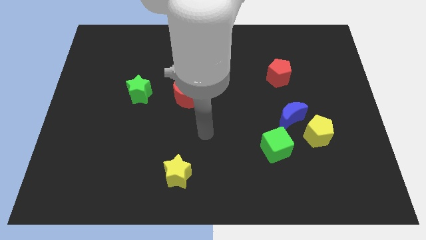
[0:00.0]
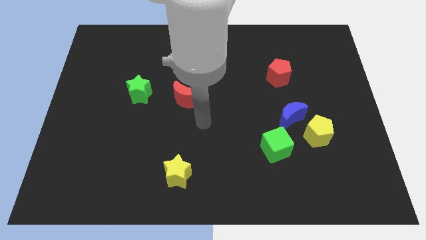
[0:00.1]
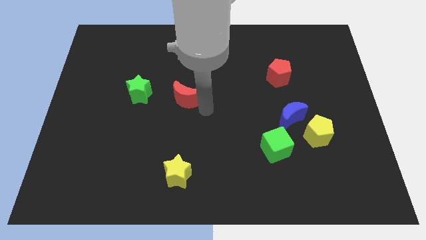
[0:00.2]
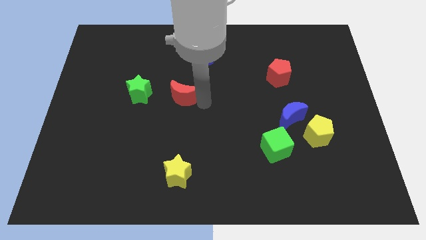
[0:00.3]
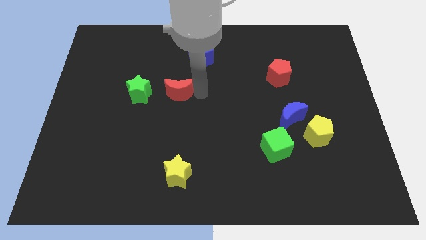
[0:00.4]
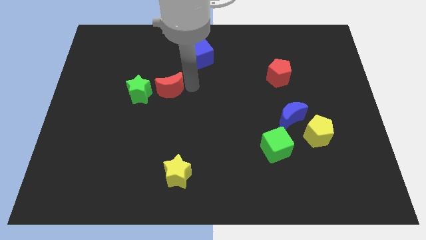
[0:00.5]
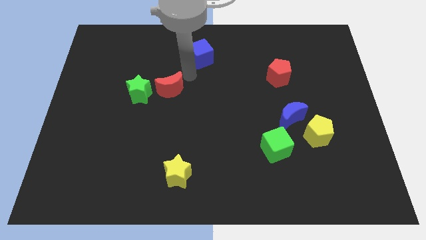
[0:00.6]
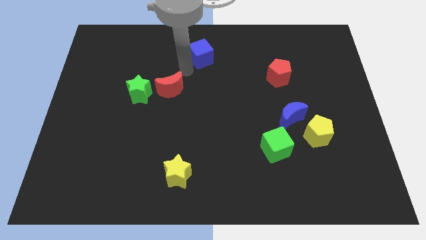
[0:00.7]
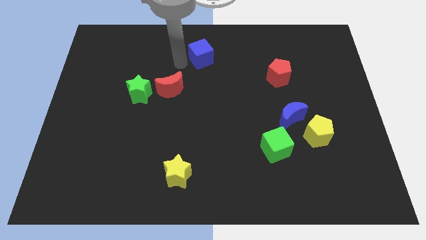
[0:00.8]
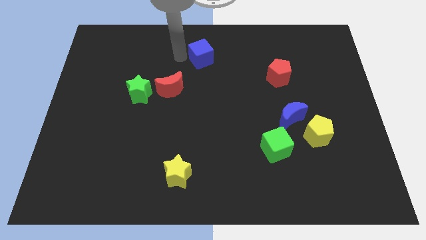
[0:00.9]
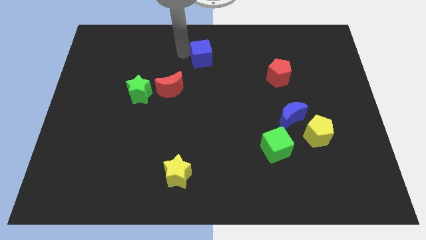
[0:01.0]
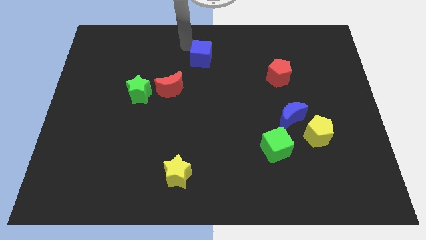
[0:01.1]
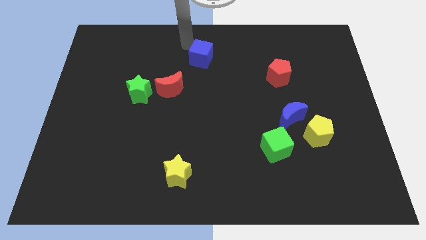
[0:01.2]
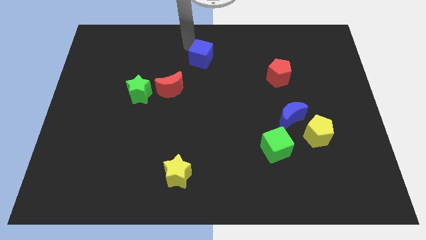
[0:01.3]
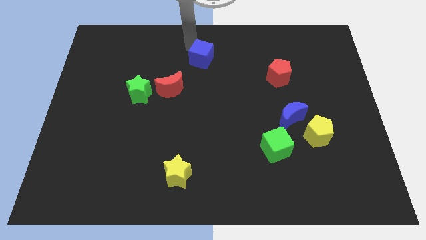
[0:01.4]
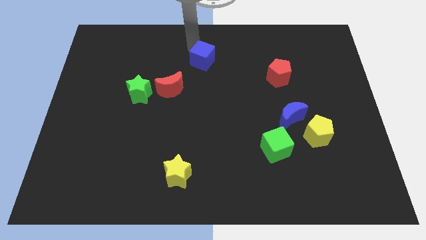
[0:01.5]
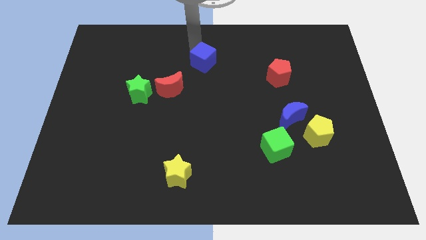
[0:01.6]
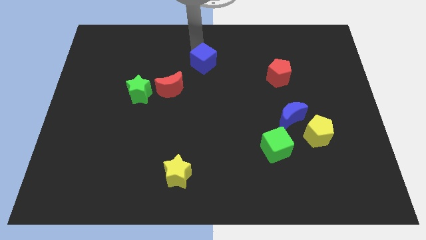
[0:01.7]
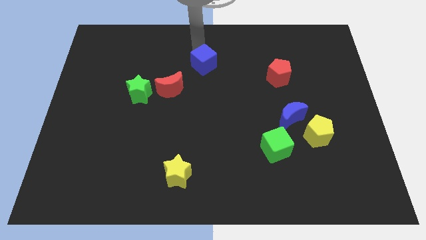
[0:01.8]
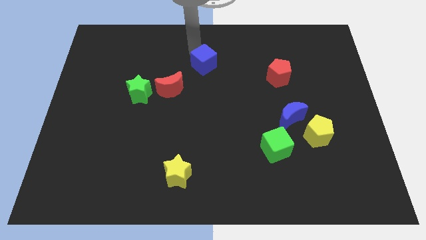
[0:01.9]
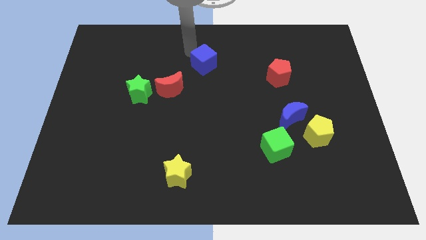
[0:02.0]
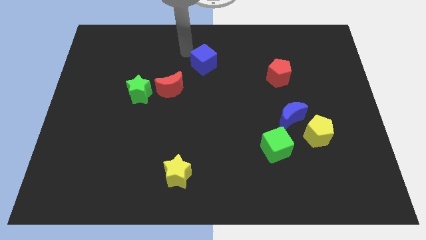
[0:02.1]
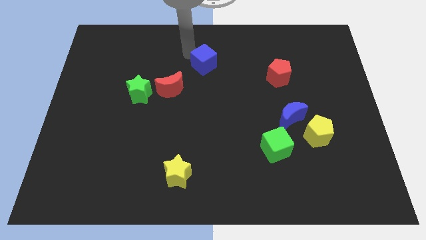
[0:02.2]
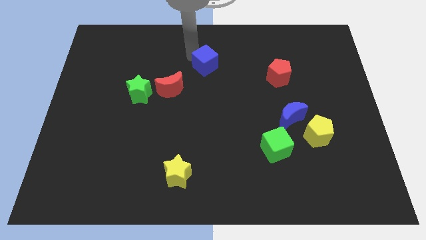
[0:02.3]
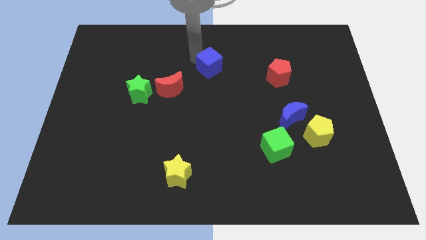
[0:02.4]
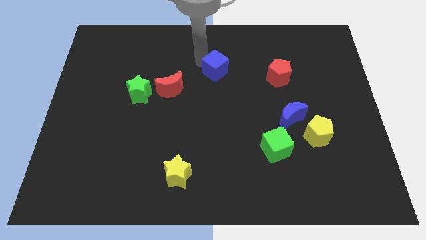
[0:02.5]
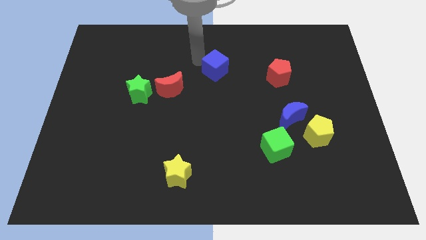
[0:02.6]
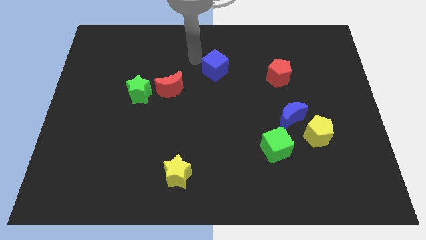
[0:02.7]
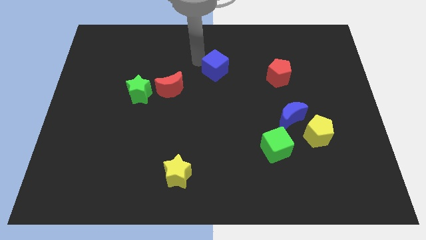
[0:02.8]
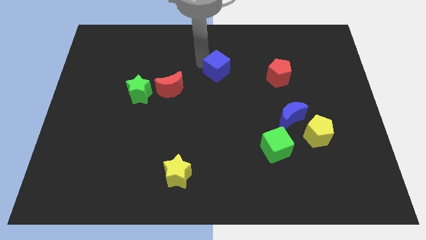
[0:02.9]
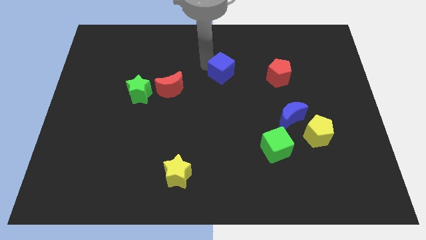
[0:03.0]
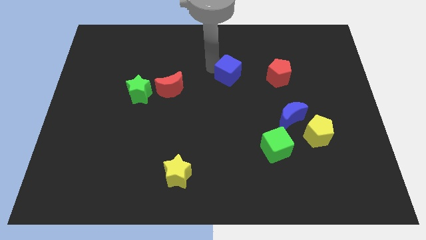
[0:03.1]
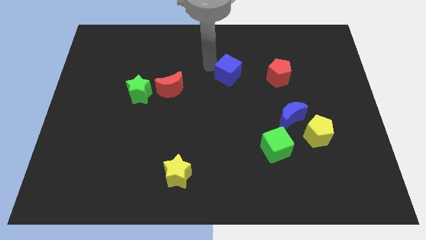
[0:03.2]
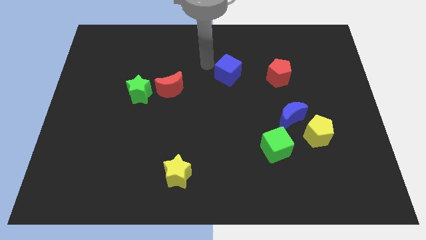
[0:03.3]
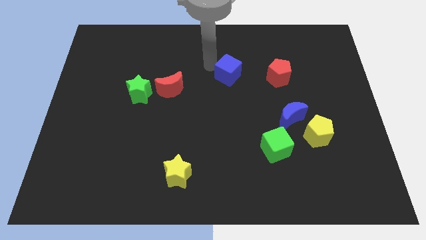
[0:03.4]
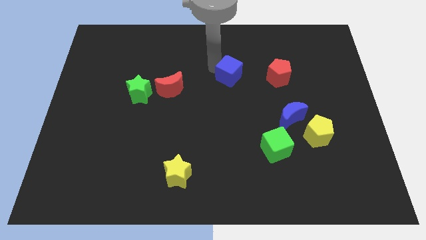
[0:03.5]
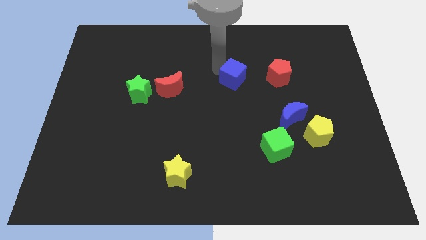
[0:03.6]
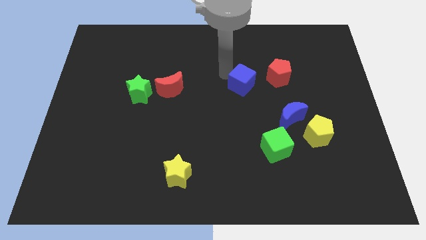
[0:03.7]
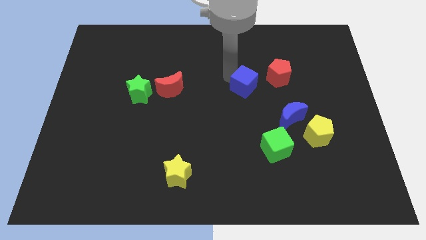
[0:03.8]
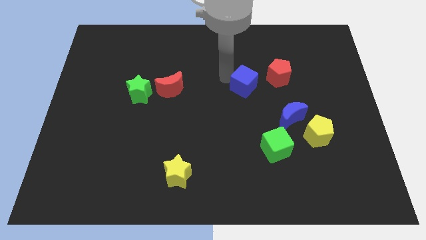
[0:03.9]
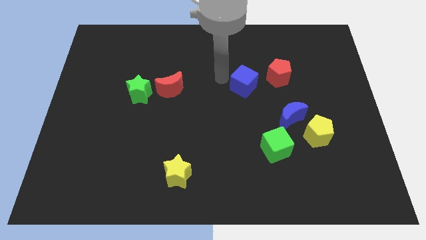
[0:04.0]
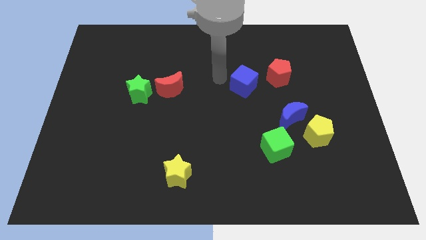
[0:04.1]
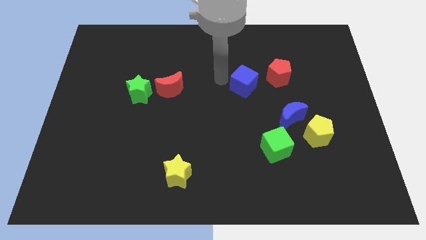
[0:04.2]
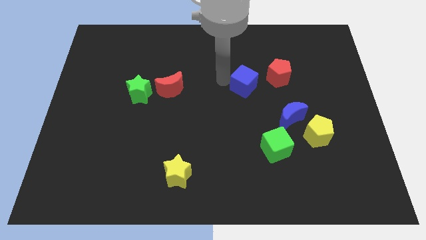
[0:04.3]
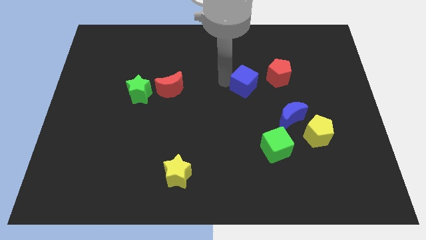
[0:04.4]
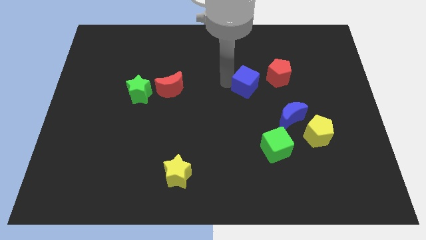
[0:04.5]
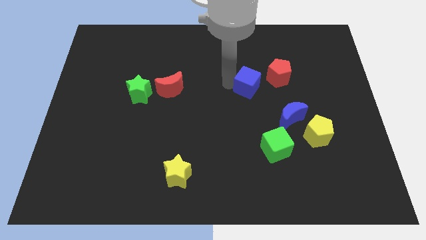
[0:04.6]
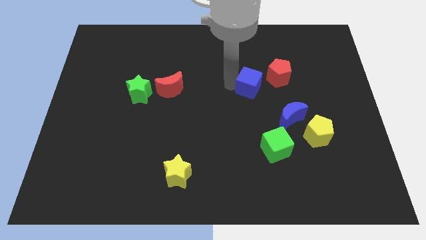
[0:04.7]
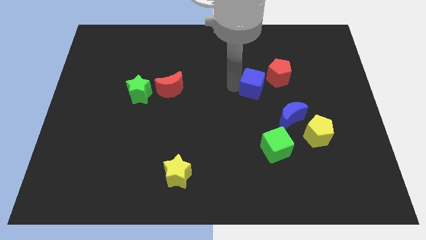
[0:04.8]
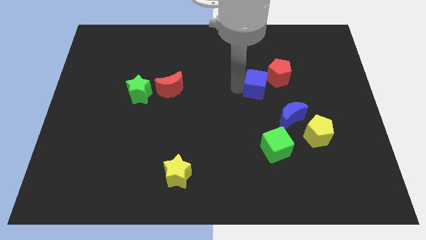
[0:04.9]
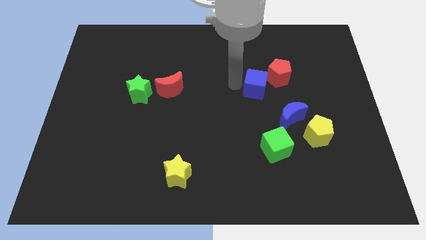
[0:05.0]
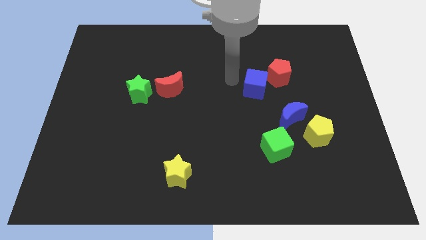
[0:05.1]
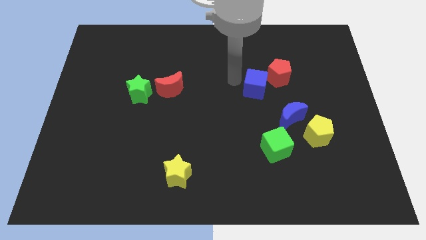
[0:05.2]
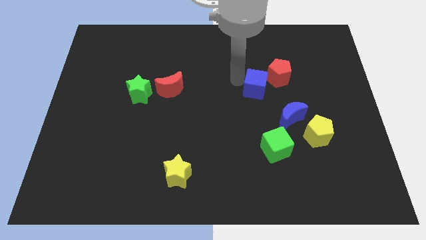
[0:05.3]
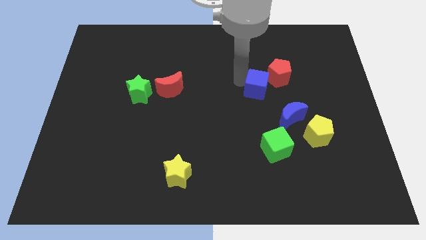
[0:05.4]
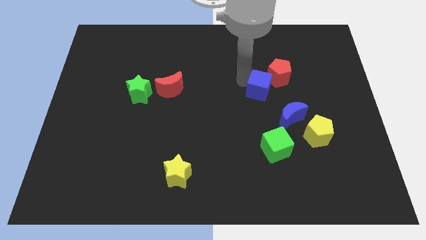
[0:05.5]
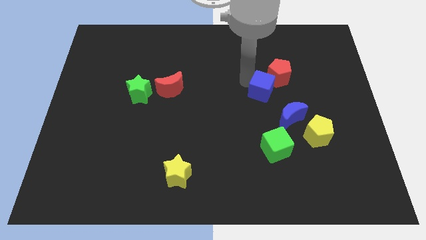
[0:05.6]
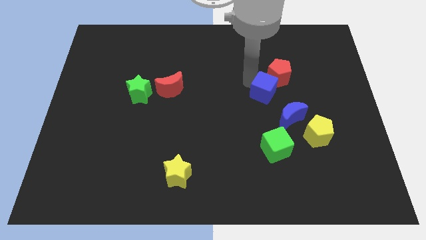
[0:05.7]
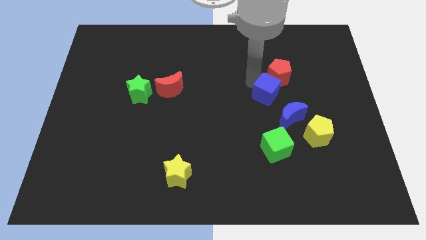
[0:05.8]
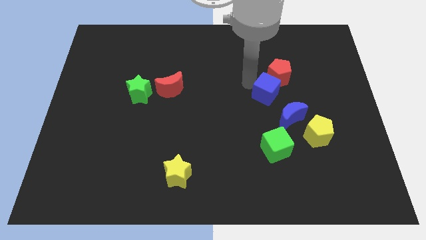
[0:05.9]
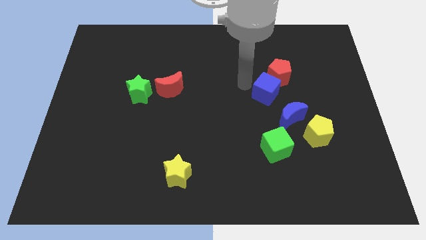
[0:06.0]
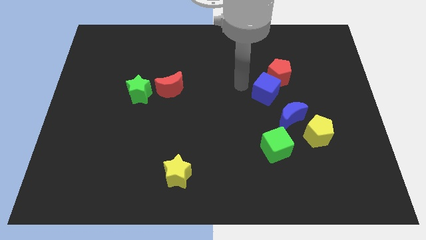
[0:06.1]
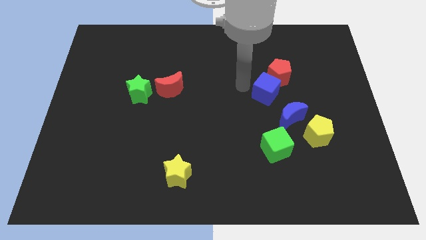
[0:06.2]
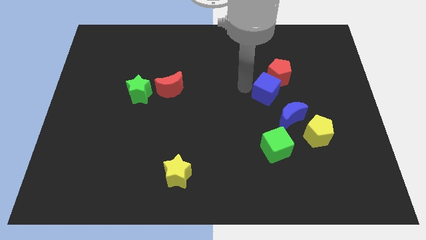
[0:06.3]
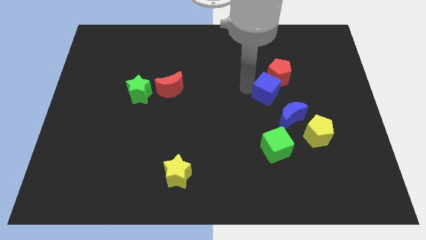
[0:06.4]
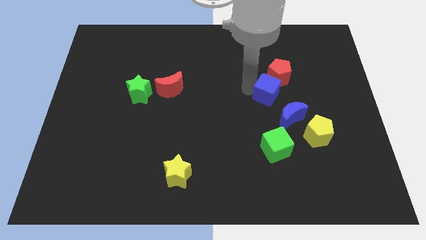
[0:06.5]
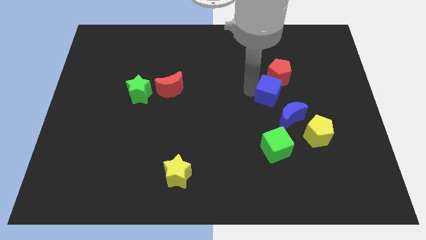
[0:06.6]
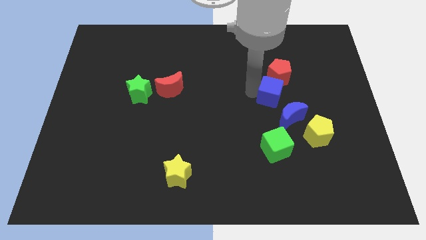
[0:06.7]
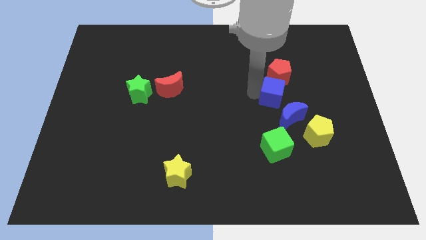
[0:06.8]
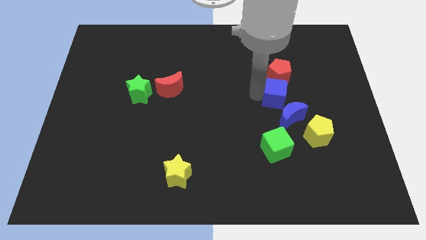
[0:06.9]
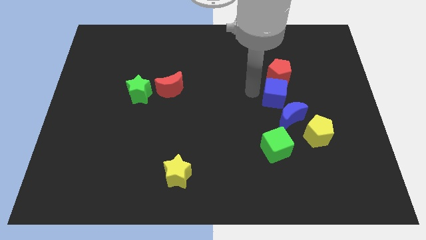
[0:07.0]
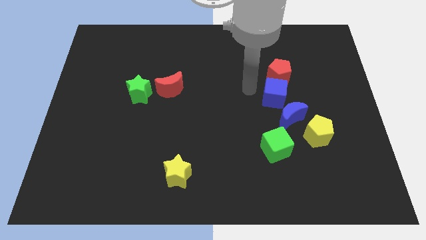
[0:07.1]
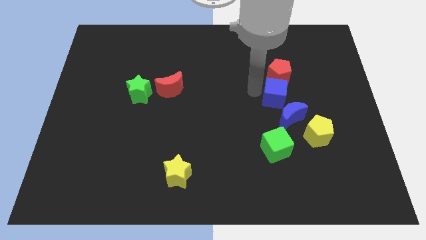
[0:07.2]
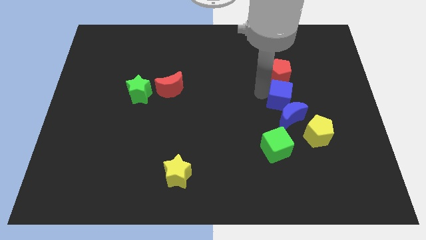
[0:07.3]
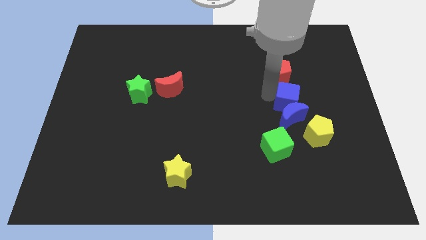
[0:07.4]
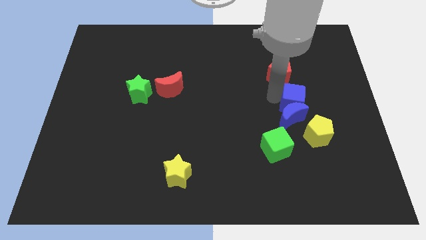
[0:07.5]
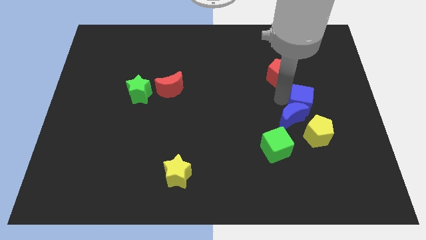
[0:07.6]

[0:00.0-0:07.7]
slide the blue cube just right of the blue moon
